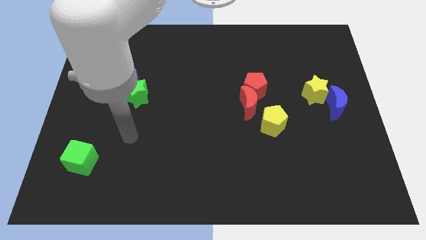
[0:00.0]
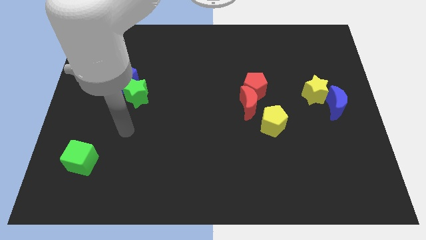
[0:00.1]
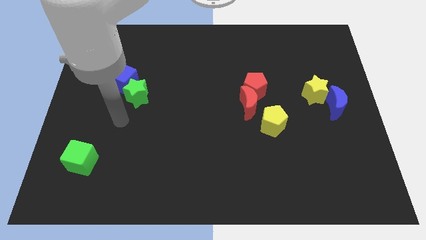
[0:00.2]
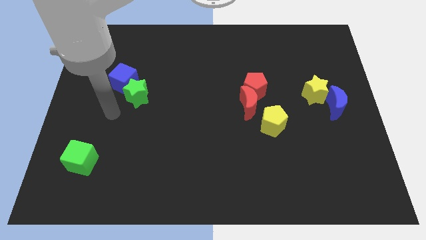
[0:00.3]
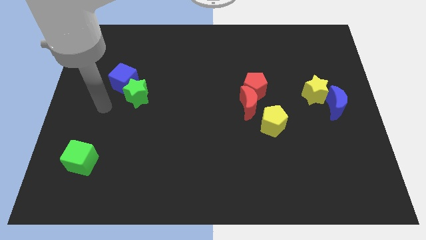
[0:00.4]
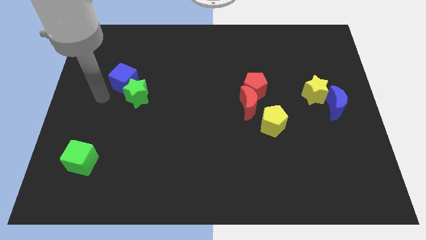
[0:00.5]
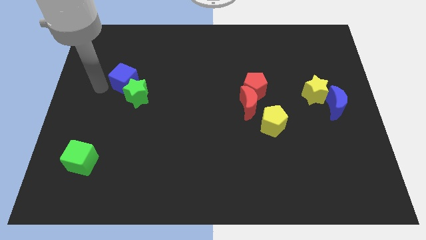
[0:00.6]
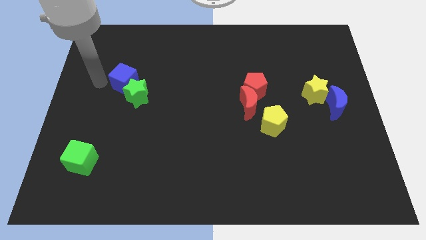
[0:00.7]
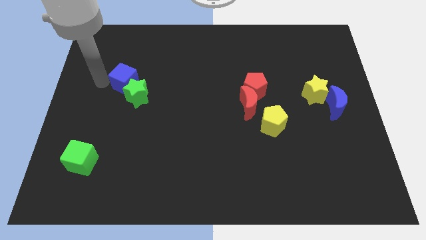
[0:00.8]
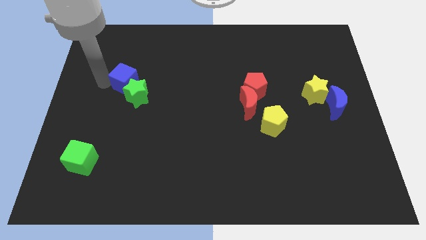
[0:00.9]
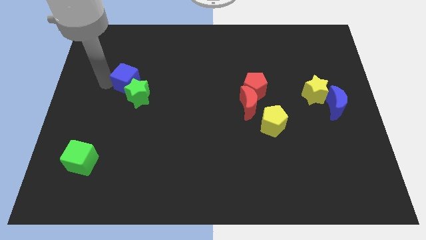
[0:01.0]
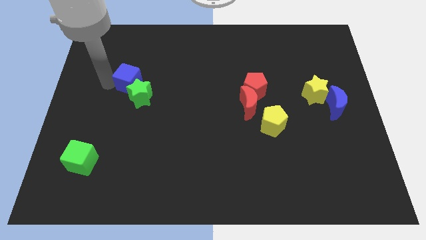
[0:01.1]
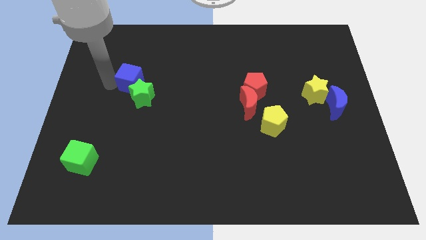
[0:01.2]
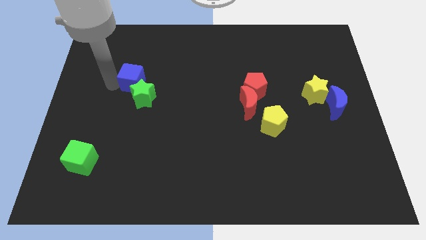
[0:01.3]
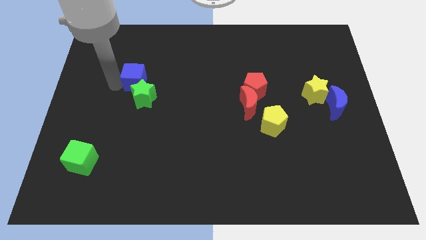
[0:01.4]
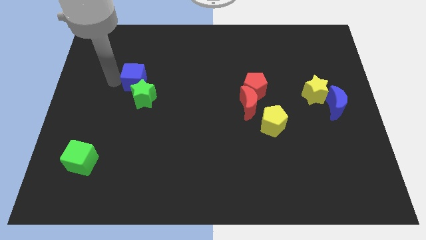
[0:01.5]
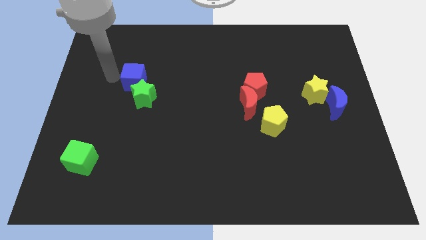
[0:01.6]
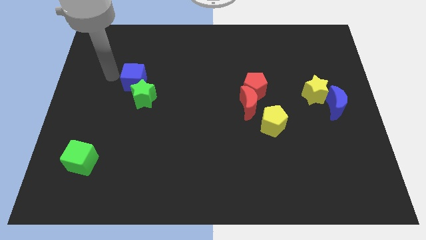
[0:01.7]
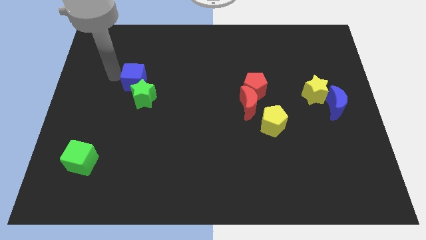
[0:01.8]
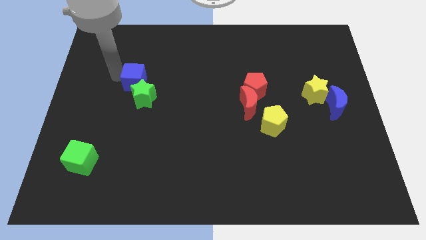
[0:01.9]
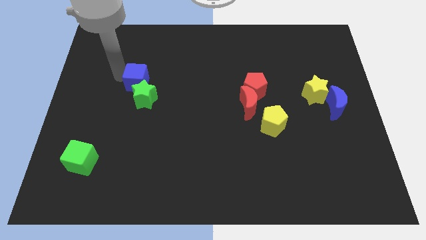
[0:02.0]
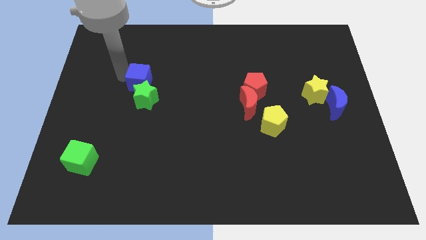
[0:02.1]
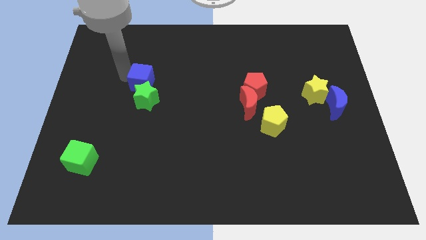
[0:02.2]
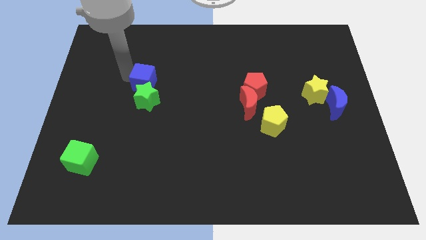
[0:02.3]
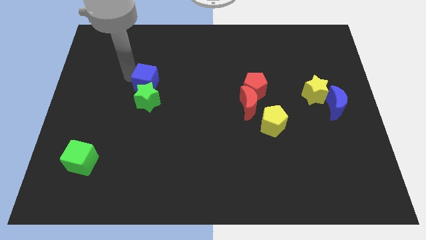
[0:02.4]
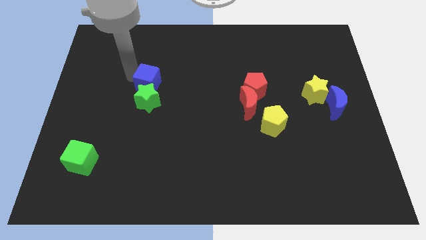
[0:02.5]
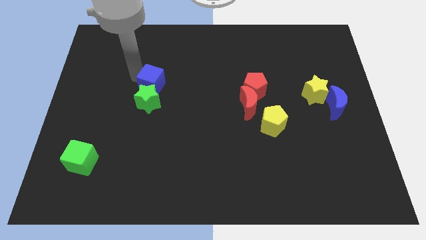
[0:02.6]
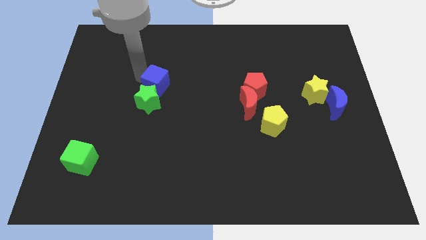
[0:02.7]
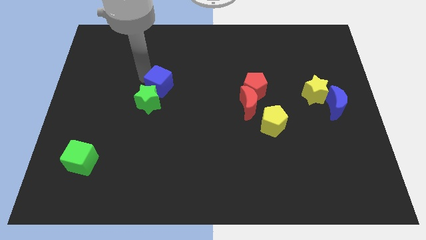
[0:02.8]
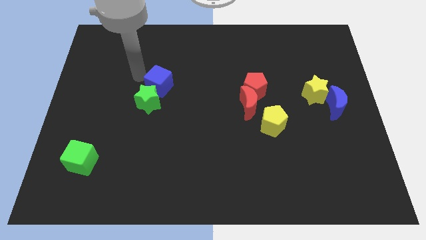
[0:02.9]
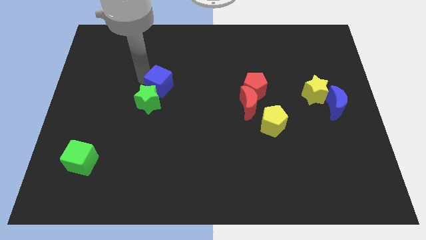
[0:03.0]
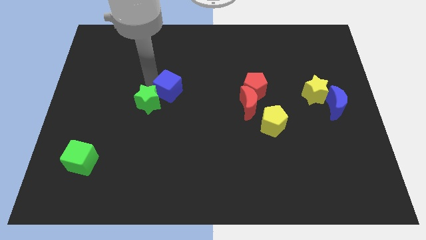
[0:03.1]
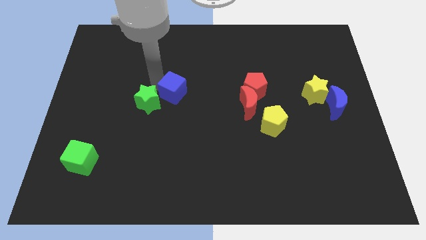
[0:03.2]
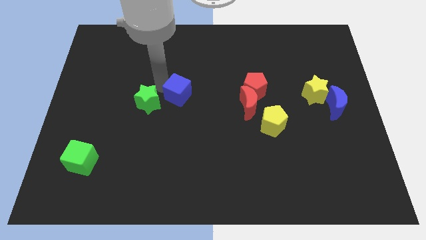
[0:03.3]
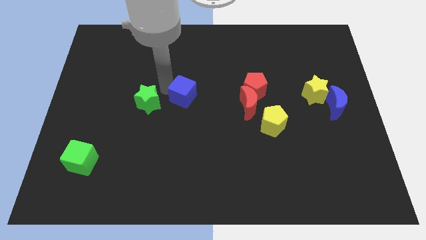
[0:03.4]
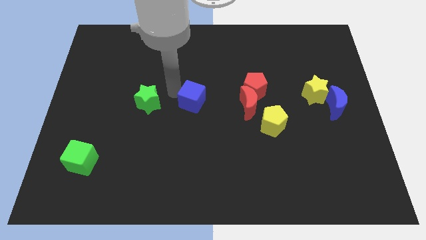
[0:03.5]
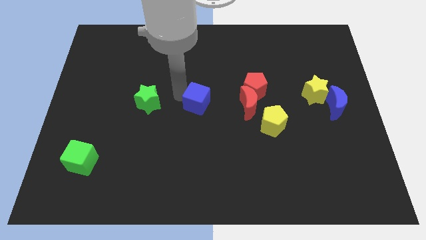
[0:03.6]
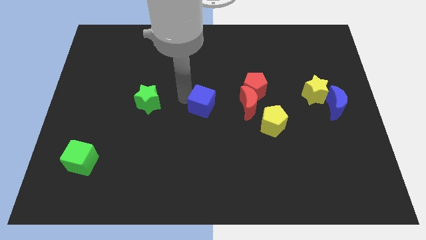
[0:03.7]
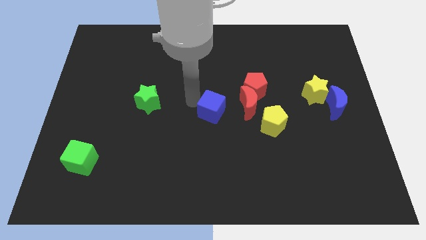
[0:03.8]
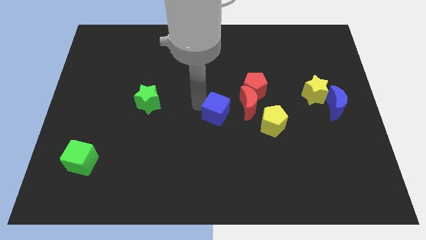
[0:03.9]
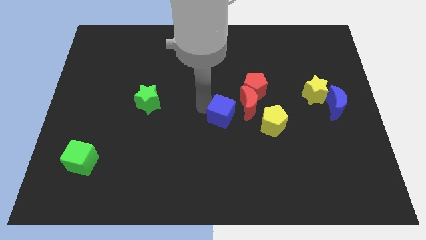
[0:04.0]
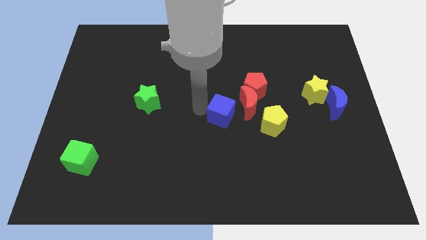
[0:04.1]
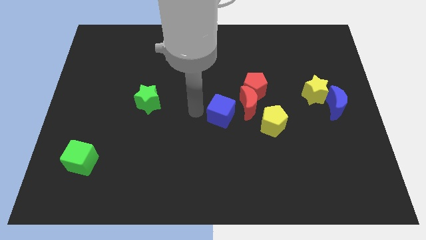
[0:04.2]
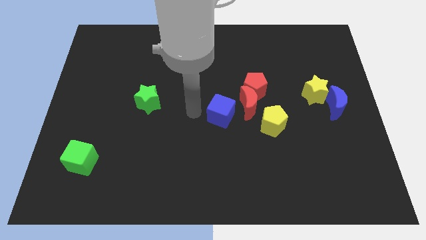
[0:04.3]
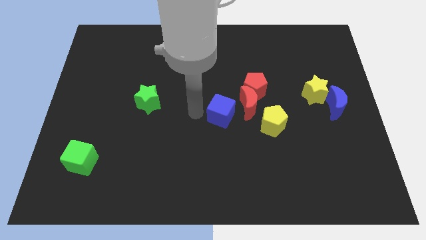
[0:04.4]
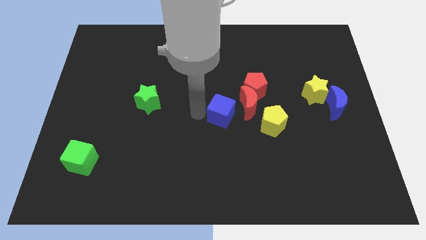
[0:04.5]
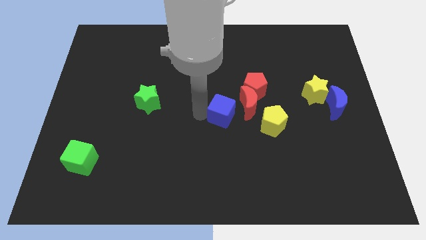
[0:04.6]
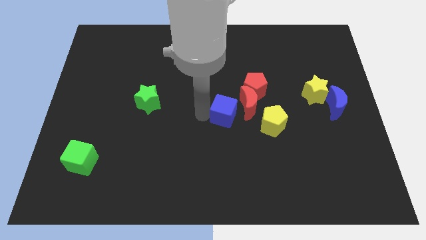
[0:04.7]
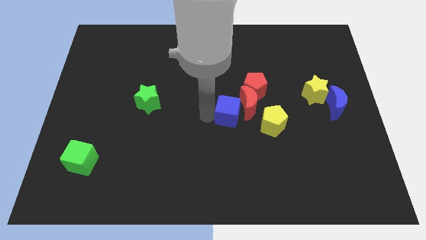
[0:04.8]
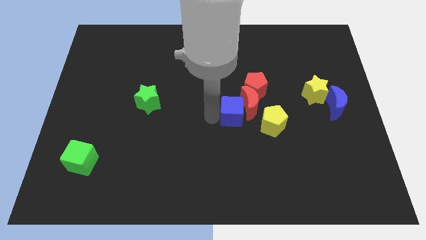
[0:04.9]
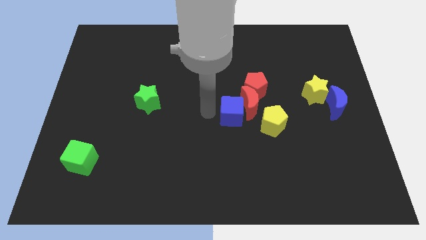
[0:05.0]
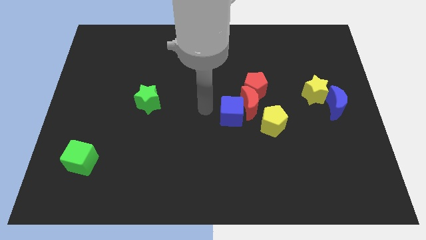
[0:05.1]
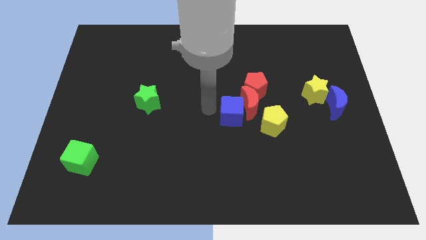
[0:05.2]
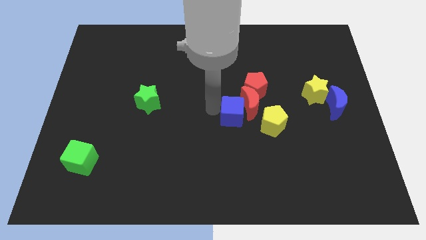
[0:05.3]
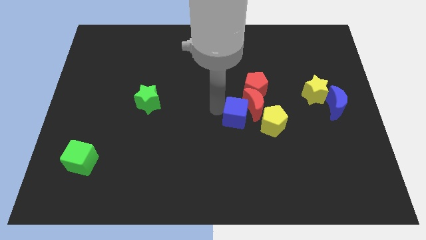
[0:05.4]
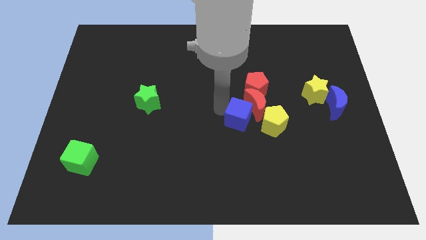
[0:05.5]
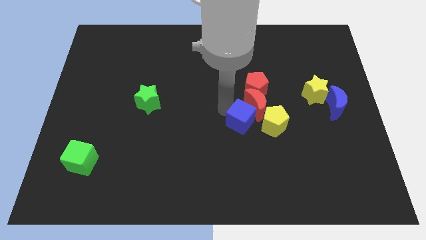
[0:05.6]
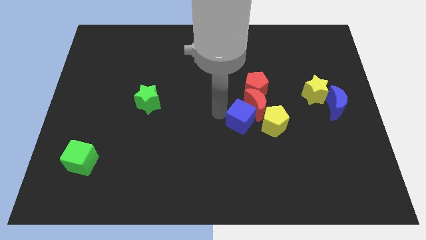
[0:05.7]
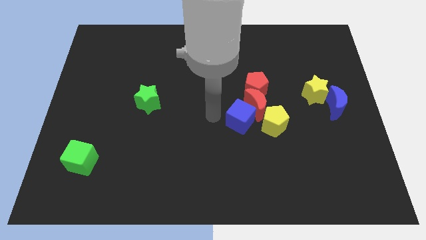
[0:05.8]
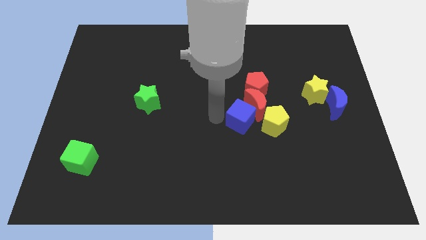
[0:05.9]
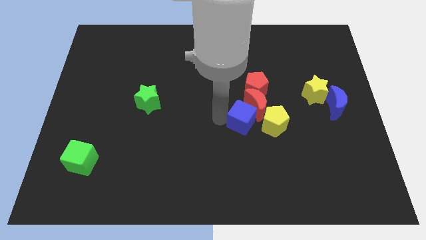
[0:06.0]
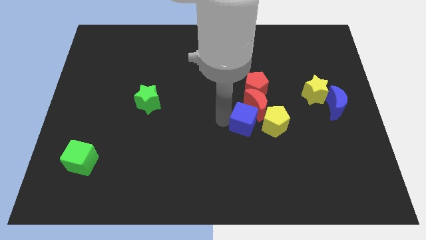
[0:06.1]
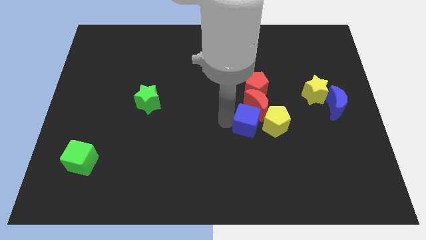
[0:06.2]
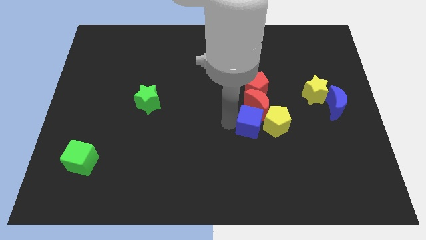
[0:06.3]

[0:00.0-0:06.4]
move the blue cube next to the yellow pentagon
